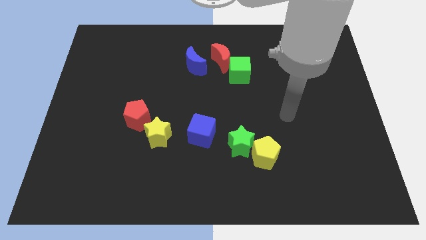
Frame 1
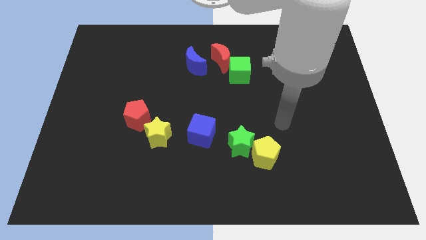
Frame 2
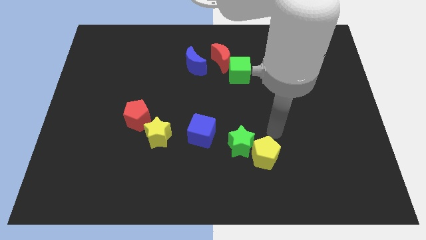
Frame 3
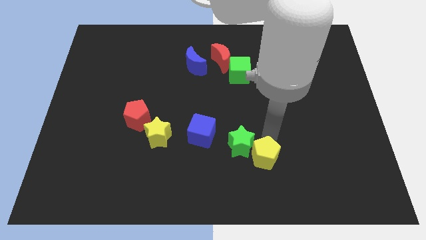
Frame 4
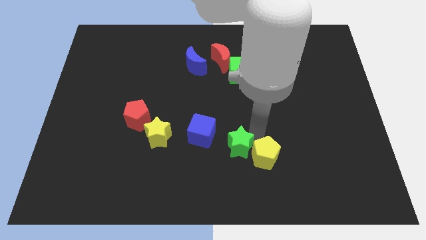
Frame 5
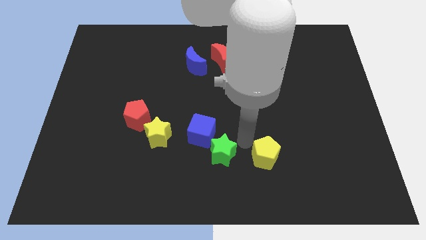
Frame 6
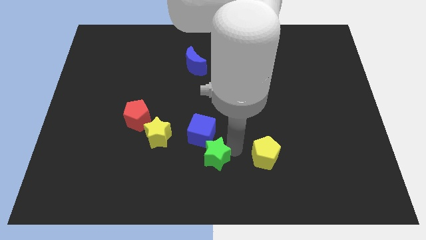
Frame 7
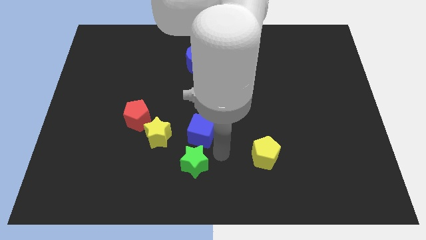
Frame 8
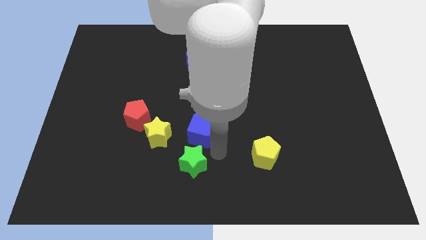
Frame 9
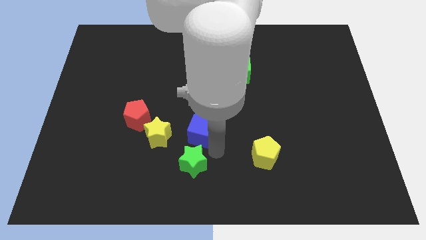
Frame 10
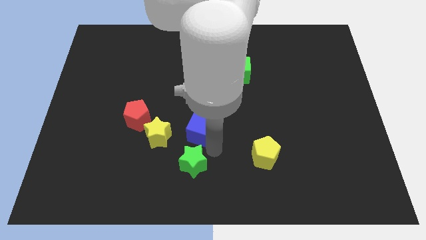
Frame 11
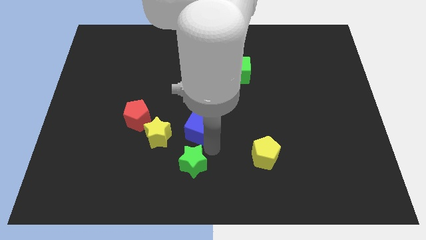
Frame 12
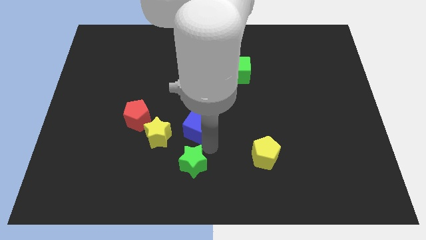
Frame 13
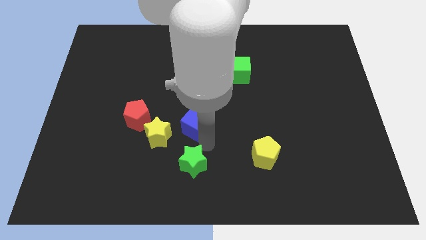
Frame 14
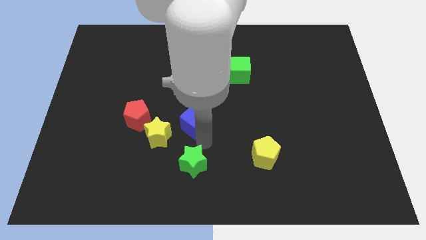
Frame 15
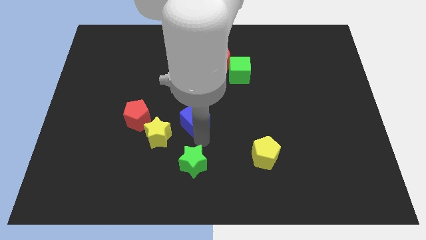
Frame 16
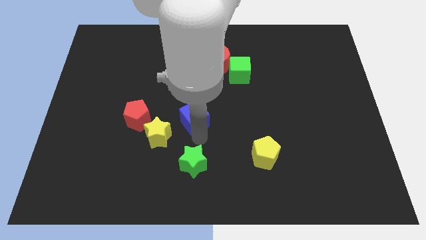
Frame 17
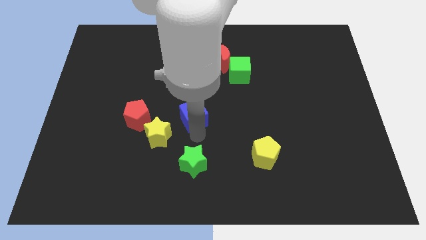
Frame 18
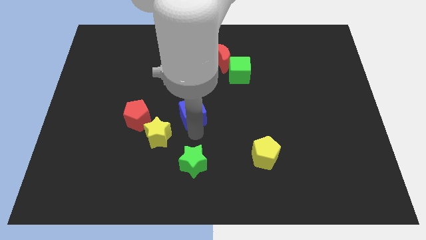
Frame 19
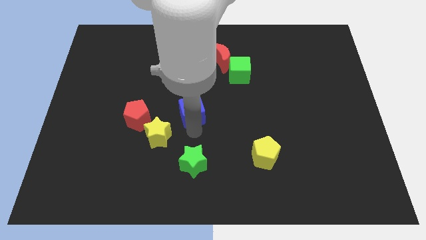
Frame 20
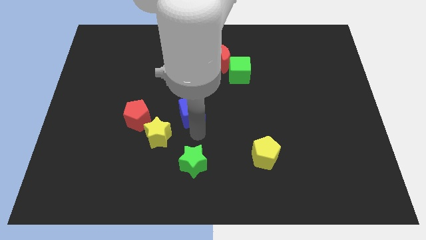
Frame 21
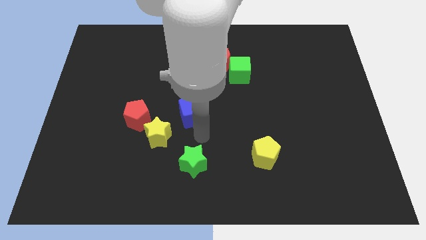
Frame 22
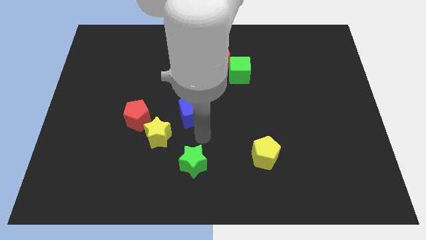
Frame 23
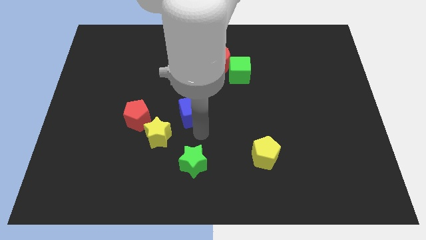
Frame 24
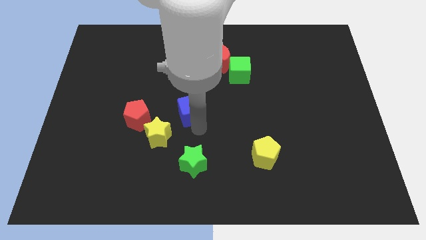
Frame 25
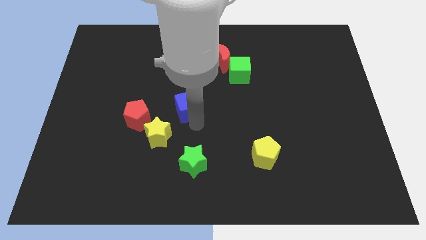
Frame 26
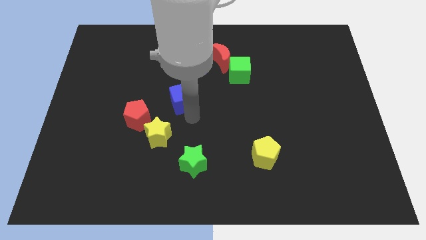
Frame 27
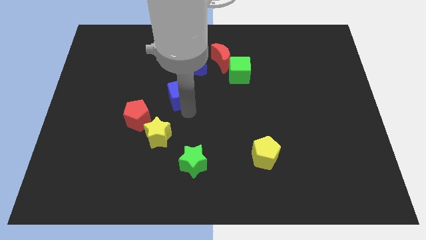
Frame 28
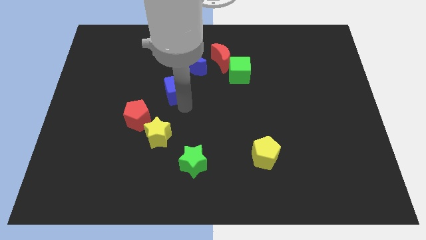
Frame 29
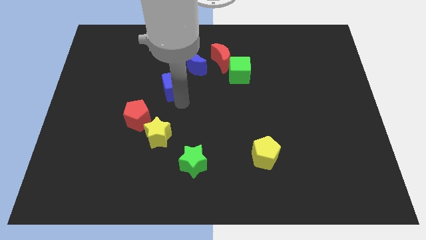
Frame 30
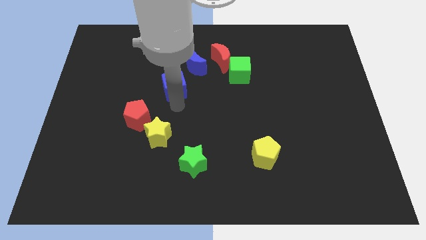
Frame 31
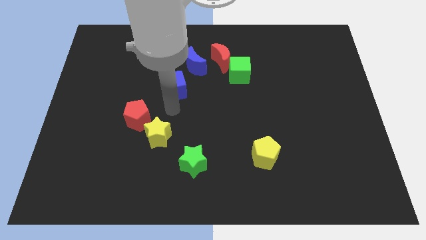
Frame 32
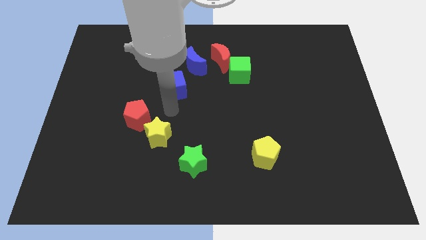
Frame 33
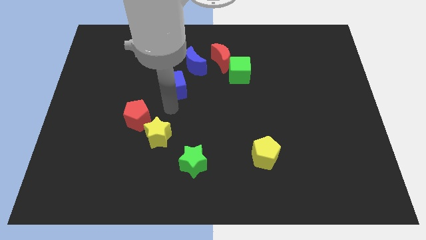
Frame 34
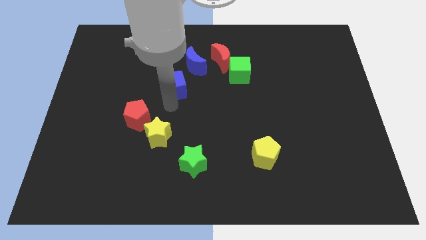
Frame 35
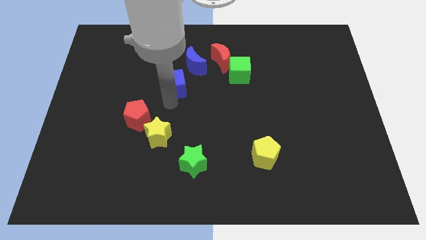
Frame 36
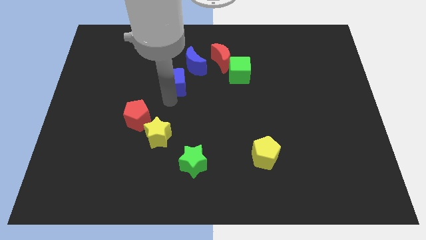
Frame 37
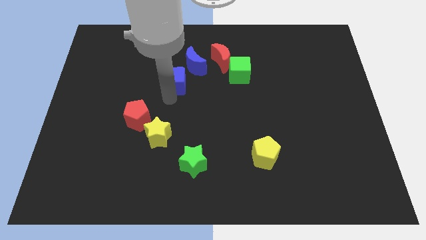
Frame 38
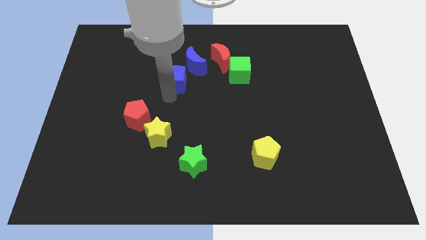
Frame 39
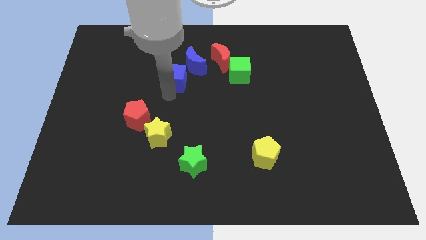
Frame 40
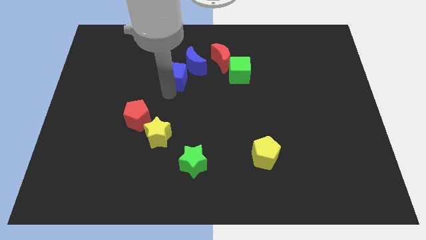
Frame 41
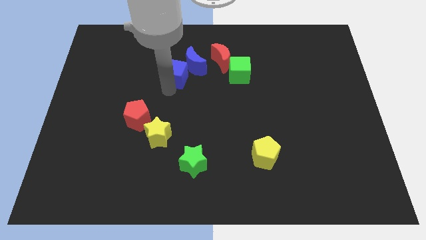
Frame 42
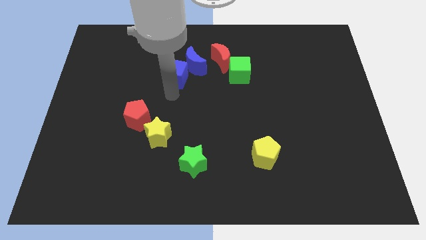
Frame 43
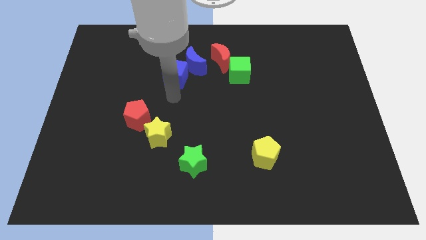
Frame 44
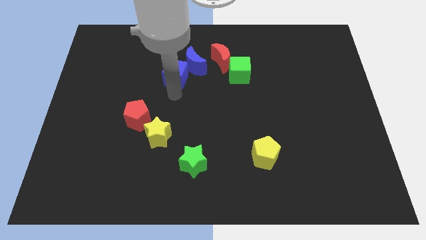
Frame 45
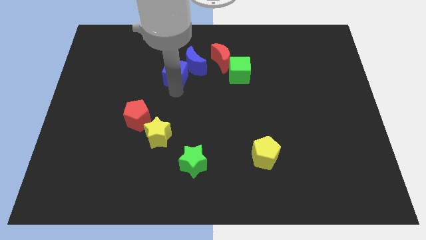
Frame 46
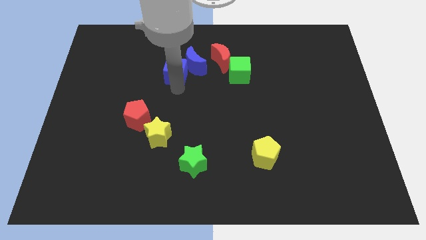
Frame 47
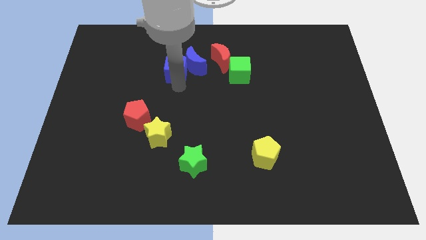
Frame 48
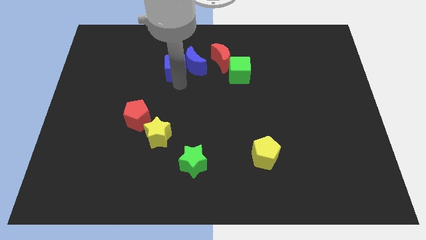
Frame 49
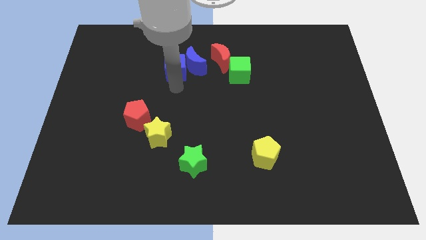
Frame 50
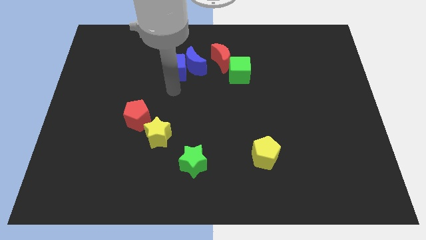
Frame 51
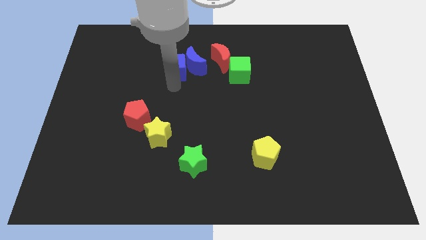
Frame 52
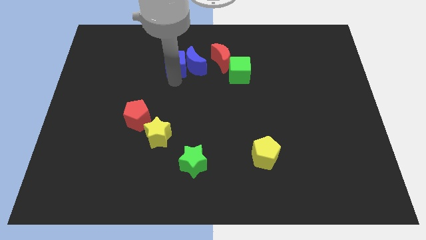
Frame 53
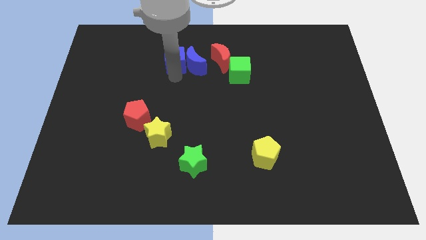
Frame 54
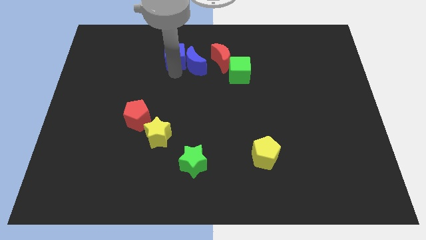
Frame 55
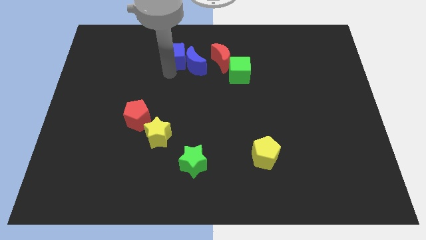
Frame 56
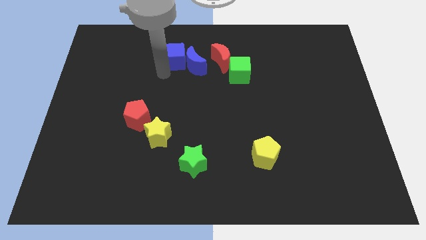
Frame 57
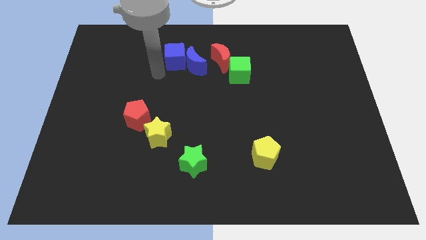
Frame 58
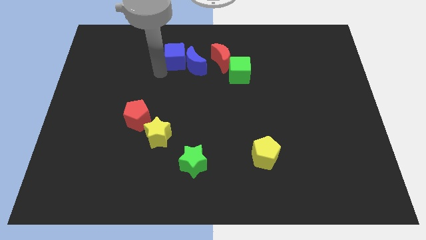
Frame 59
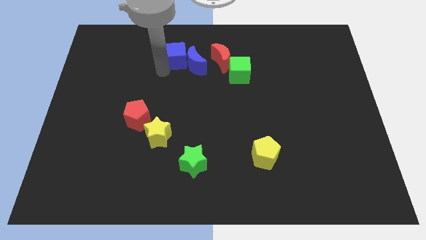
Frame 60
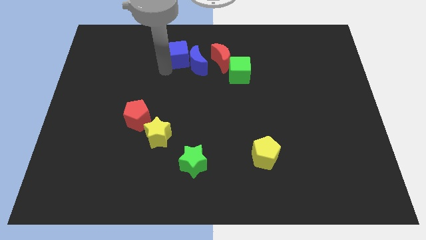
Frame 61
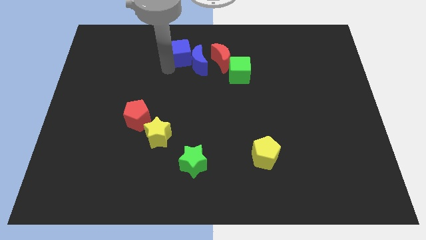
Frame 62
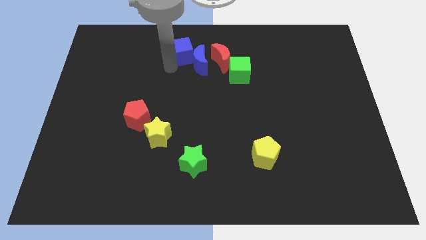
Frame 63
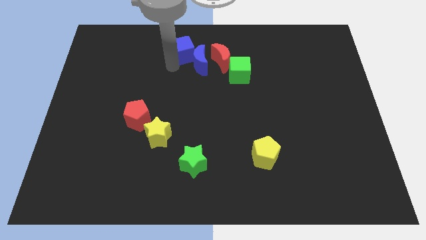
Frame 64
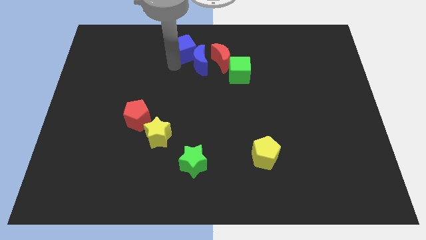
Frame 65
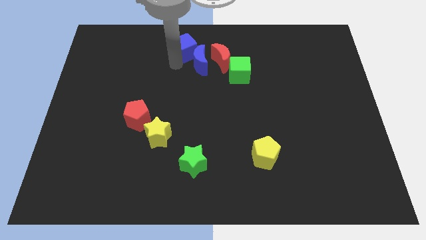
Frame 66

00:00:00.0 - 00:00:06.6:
move the blue cube to the top side
